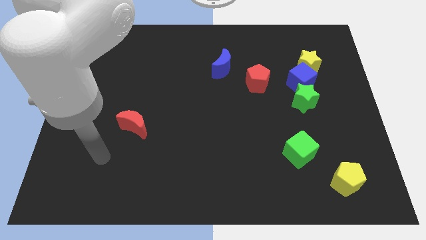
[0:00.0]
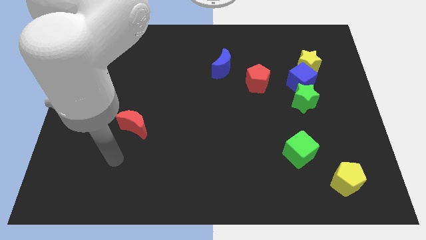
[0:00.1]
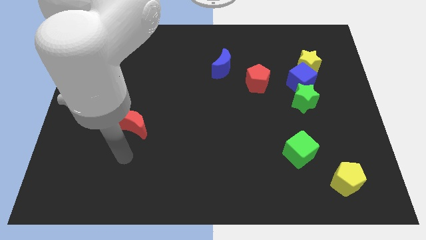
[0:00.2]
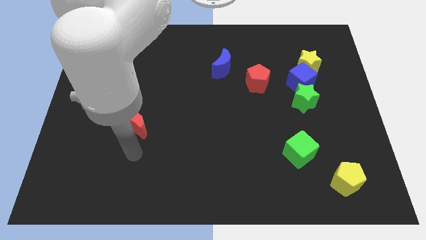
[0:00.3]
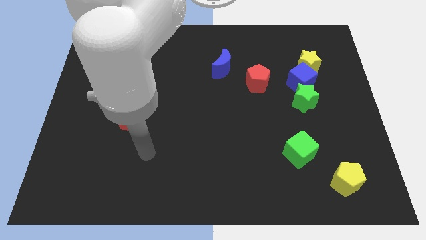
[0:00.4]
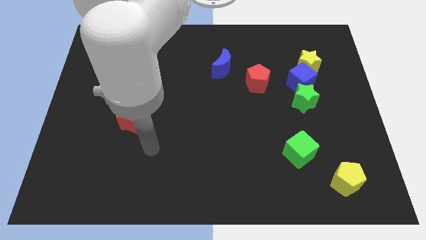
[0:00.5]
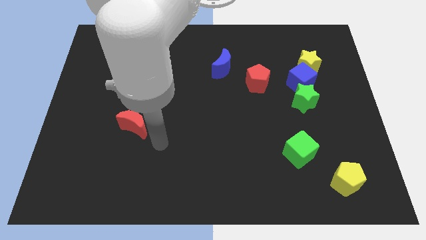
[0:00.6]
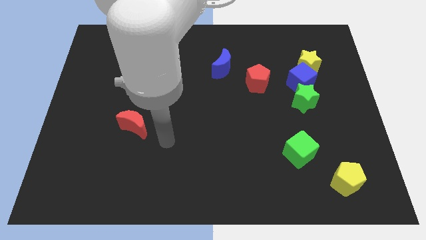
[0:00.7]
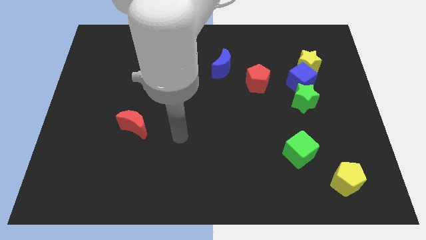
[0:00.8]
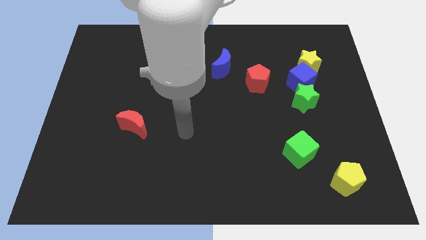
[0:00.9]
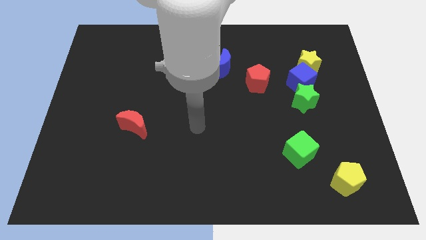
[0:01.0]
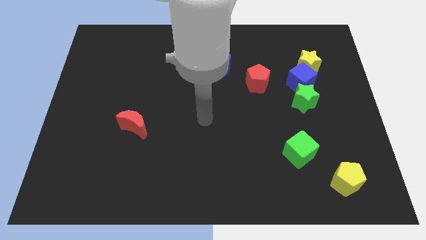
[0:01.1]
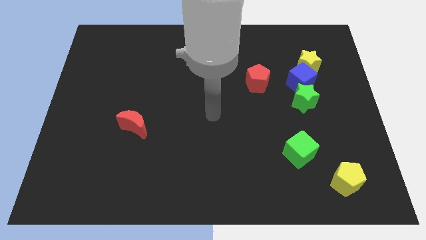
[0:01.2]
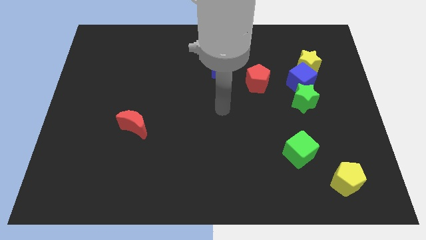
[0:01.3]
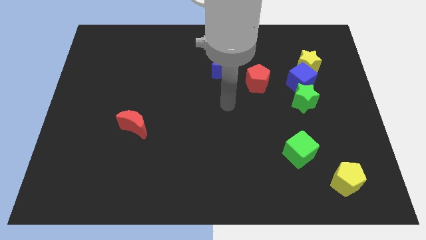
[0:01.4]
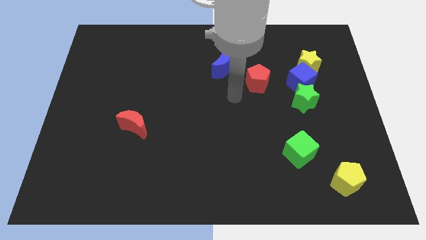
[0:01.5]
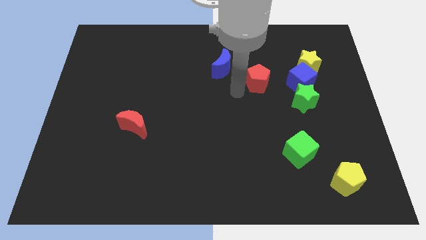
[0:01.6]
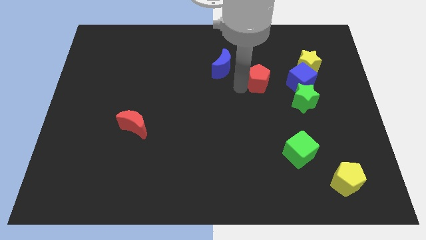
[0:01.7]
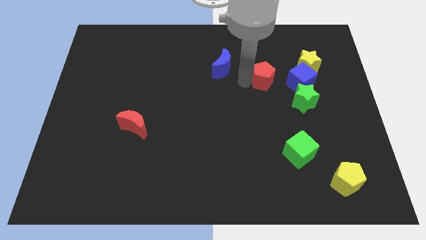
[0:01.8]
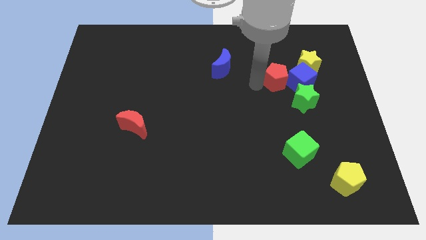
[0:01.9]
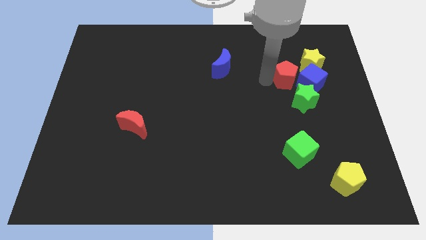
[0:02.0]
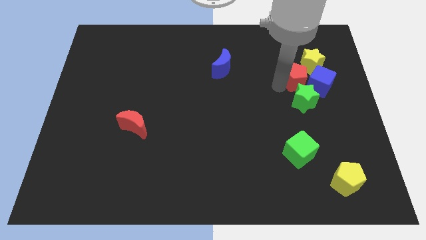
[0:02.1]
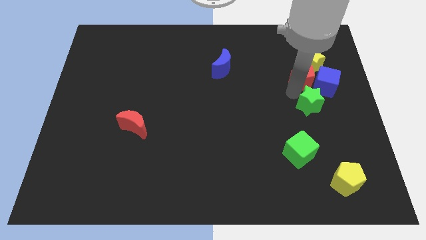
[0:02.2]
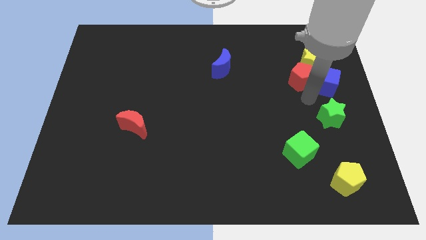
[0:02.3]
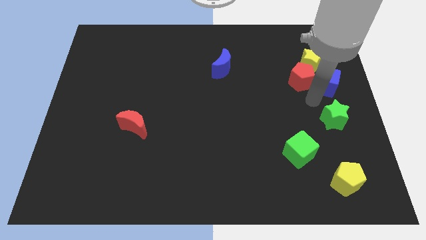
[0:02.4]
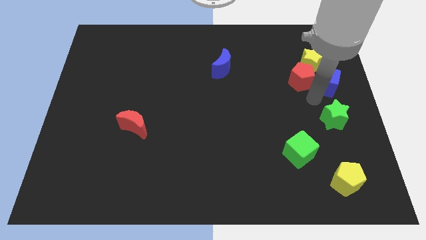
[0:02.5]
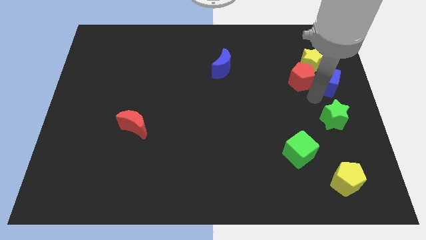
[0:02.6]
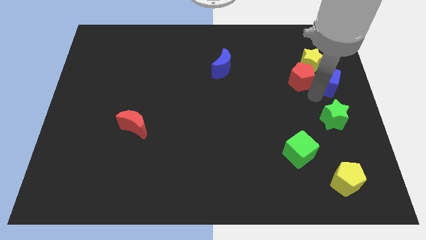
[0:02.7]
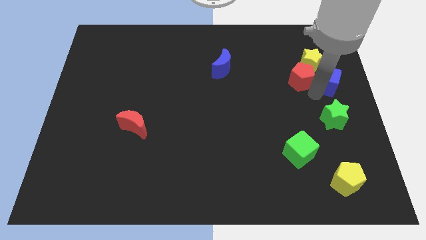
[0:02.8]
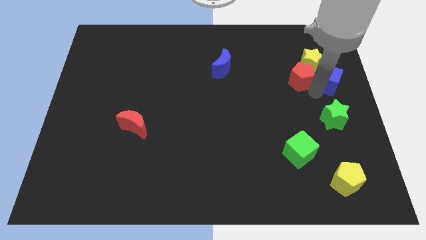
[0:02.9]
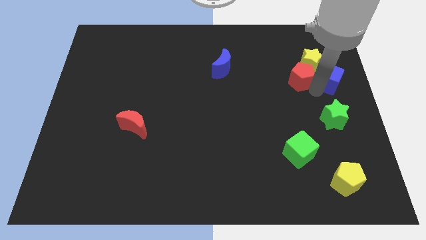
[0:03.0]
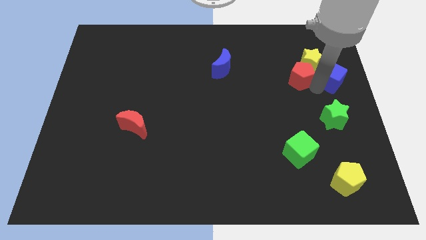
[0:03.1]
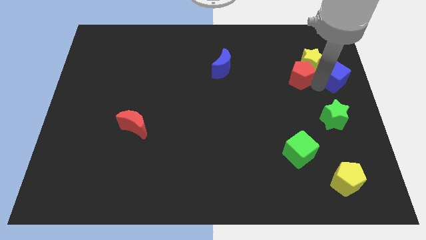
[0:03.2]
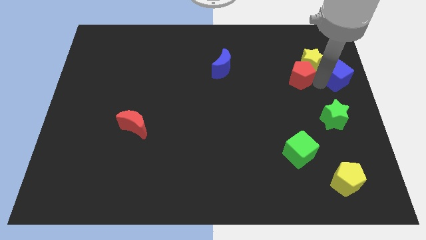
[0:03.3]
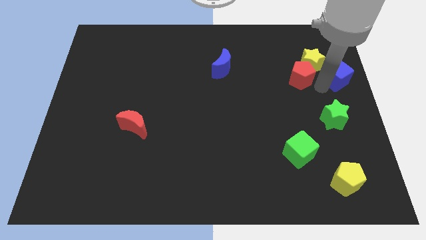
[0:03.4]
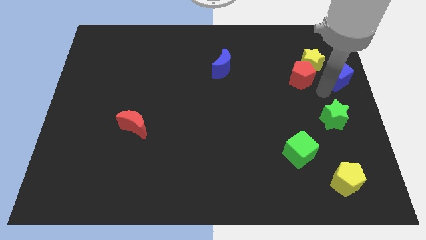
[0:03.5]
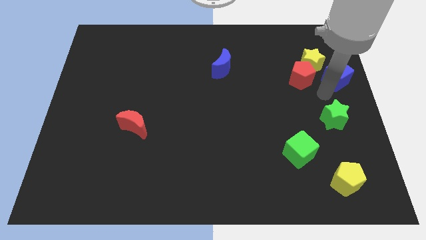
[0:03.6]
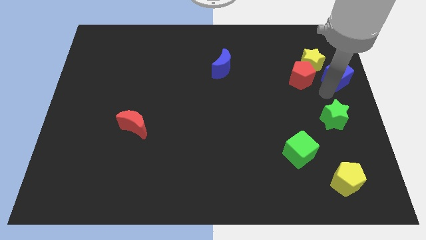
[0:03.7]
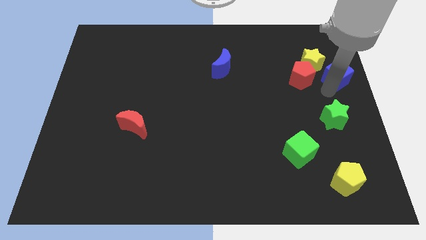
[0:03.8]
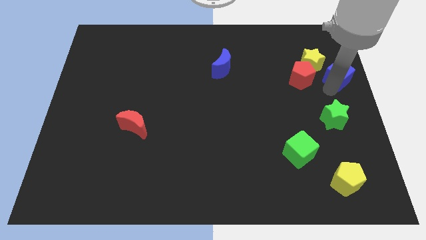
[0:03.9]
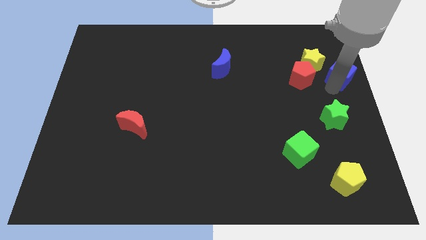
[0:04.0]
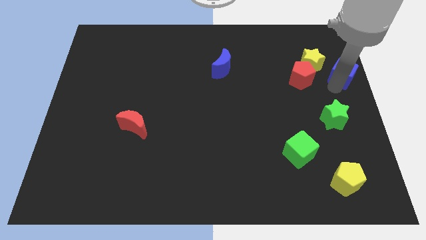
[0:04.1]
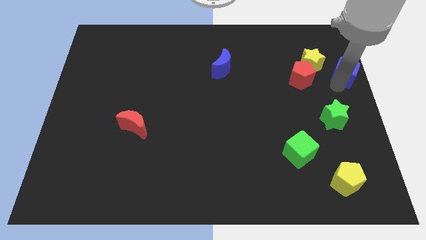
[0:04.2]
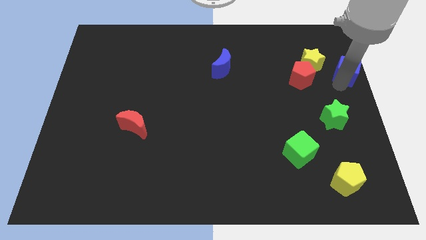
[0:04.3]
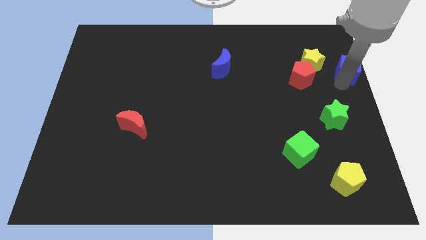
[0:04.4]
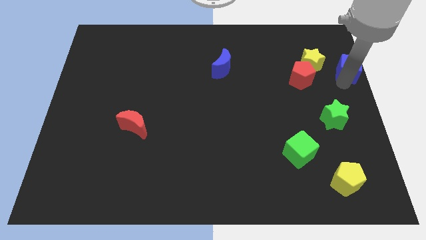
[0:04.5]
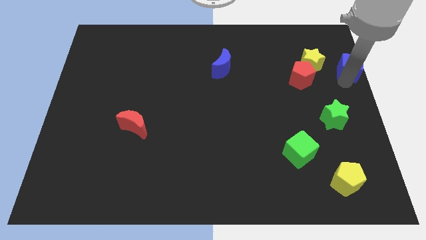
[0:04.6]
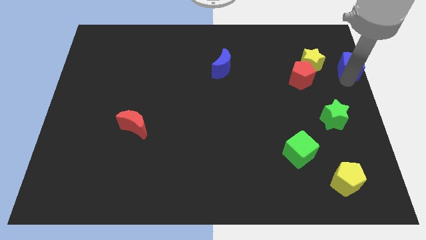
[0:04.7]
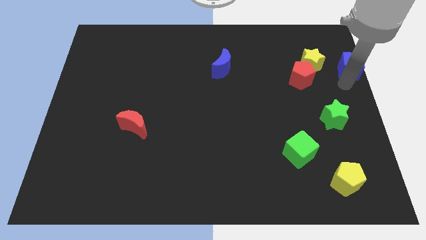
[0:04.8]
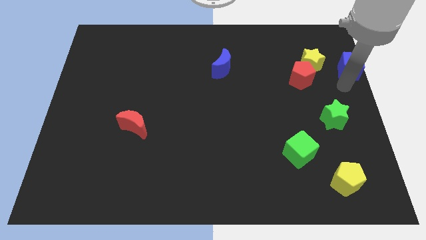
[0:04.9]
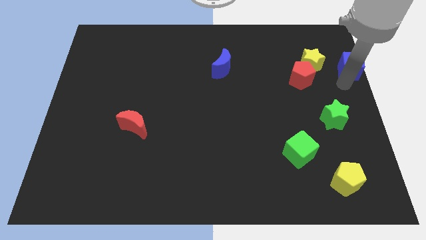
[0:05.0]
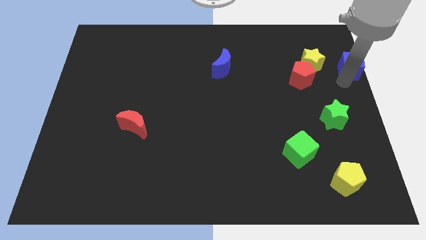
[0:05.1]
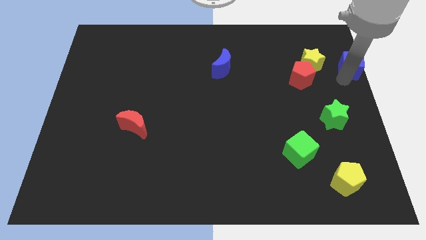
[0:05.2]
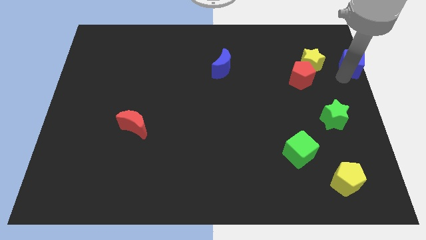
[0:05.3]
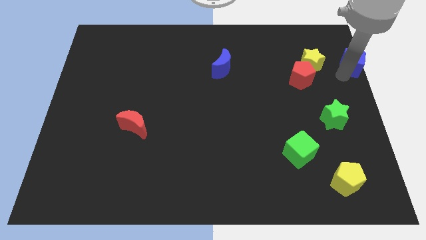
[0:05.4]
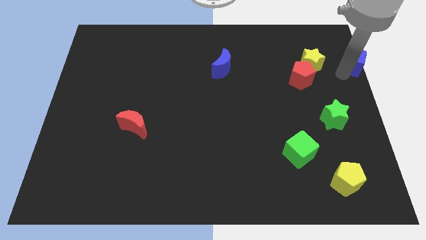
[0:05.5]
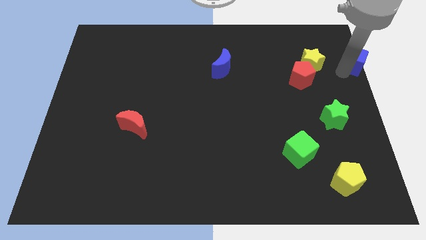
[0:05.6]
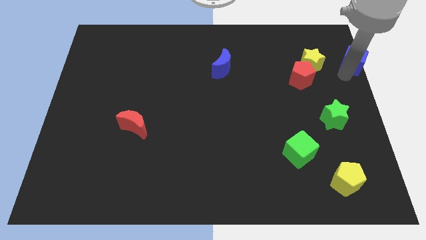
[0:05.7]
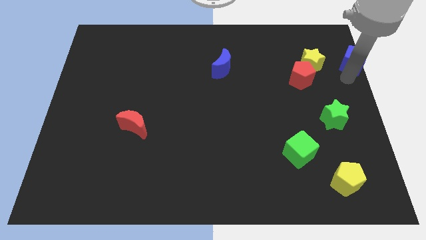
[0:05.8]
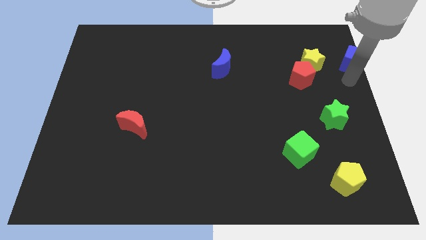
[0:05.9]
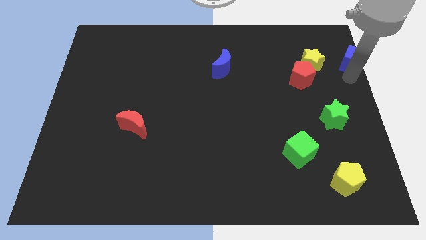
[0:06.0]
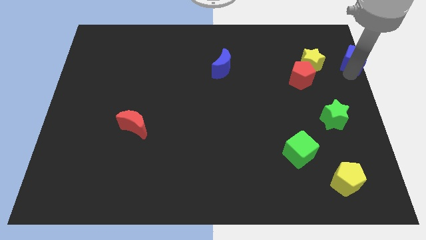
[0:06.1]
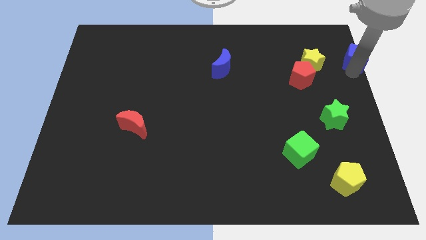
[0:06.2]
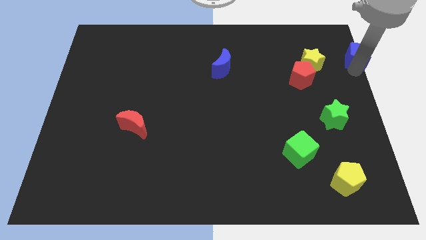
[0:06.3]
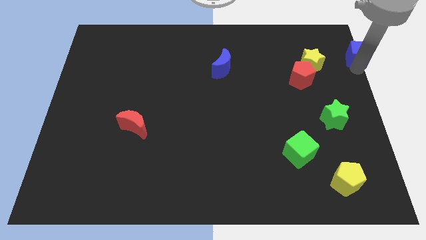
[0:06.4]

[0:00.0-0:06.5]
move the blue cube to the upper right corner
